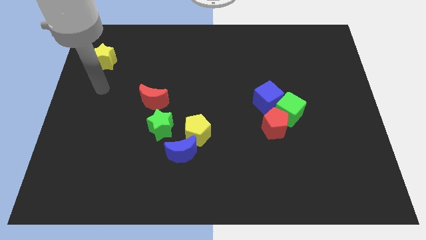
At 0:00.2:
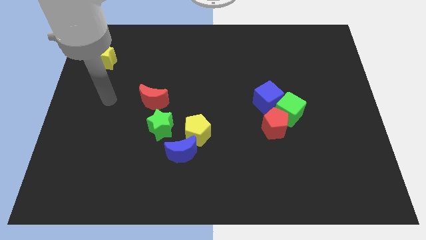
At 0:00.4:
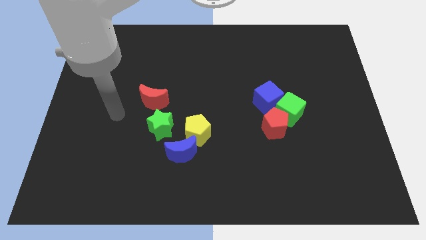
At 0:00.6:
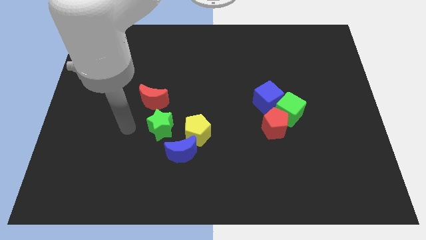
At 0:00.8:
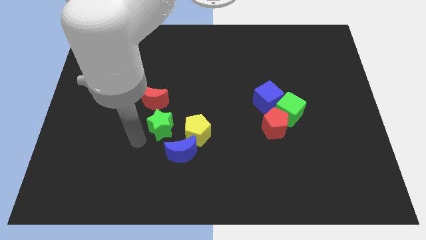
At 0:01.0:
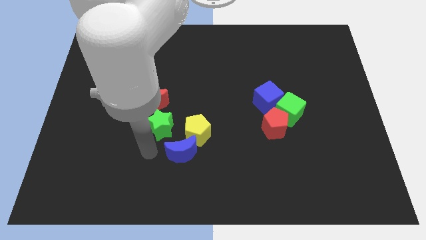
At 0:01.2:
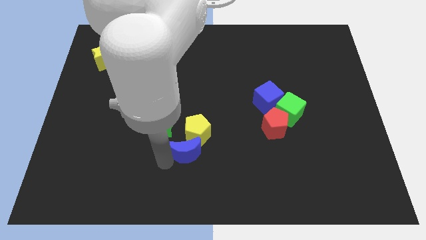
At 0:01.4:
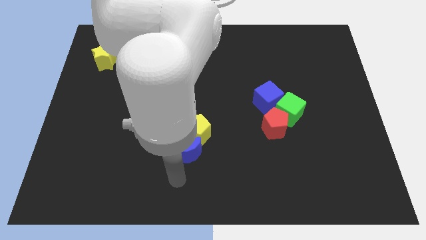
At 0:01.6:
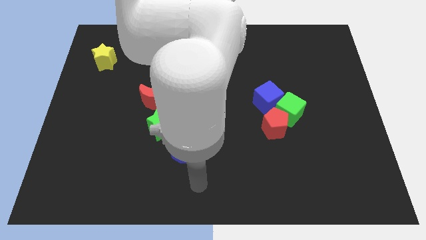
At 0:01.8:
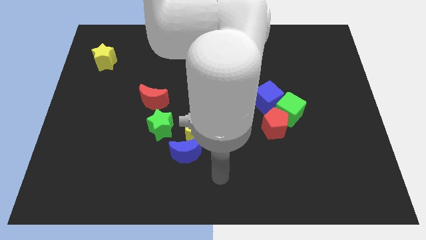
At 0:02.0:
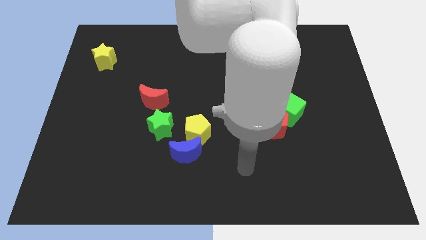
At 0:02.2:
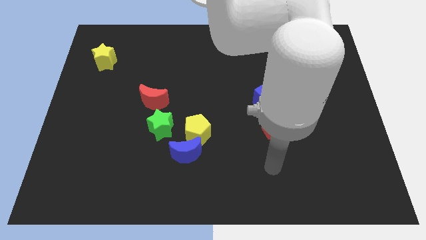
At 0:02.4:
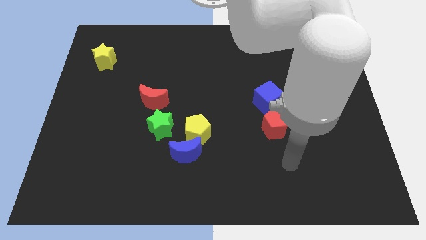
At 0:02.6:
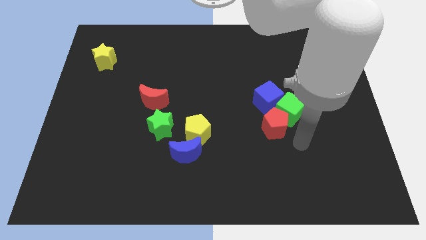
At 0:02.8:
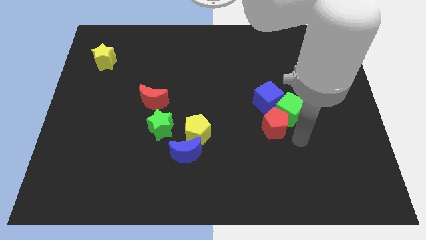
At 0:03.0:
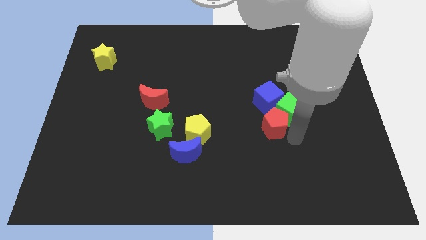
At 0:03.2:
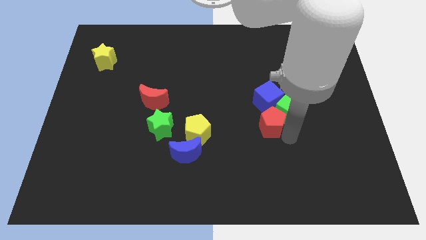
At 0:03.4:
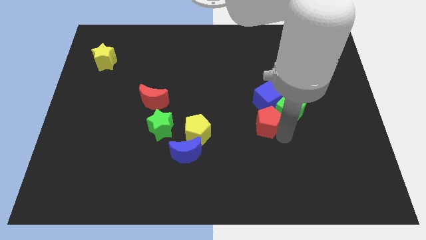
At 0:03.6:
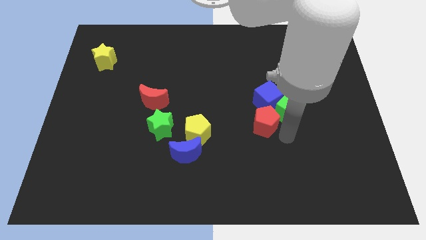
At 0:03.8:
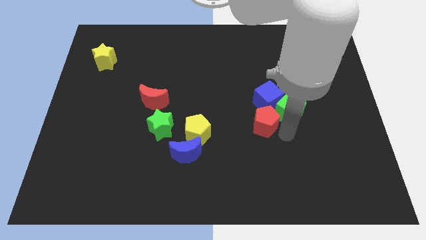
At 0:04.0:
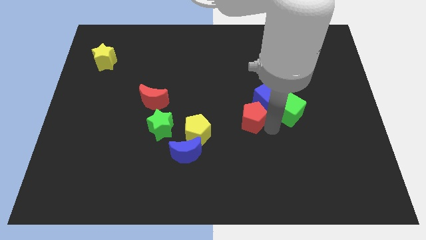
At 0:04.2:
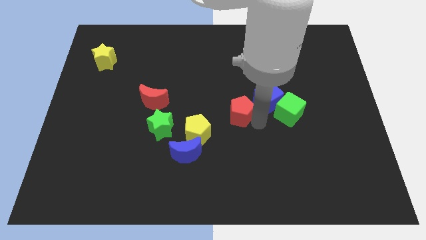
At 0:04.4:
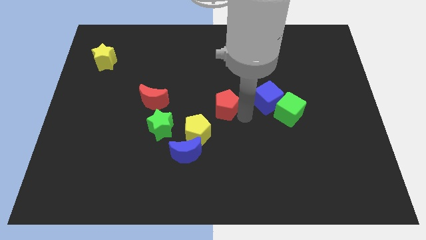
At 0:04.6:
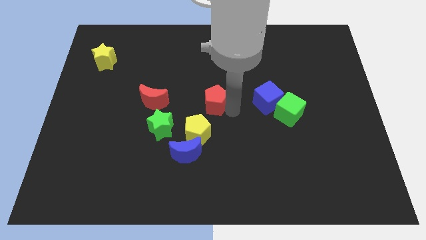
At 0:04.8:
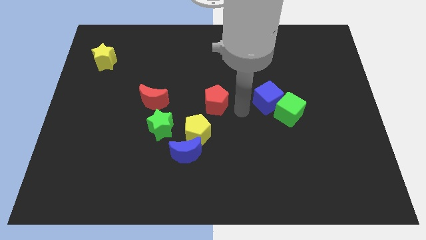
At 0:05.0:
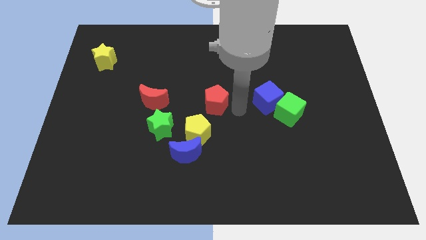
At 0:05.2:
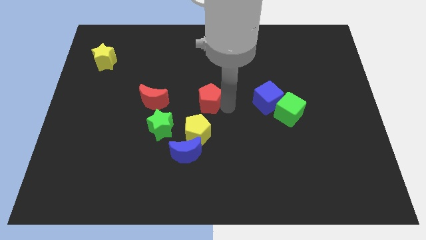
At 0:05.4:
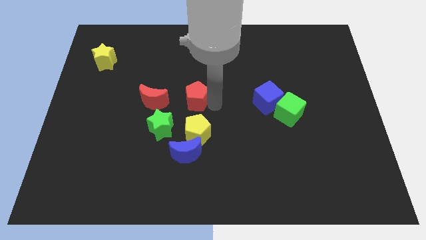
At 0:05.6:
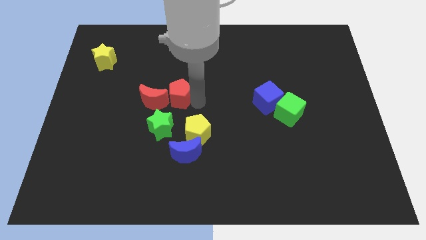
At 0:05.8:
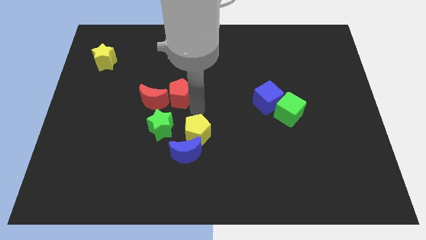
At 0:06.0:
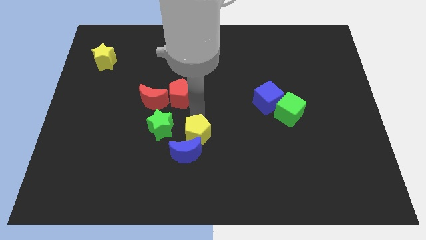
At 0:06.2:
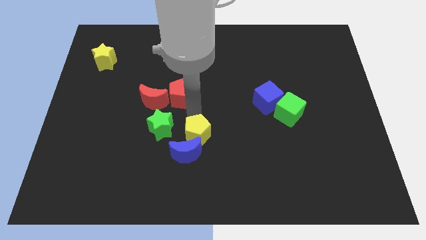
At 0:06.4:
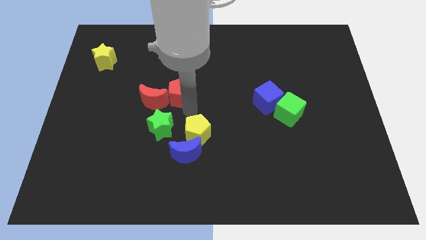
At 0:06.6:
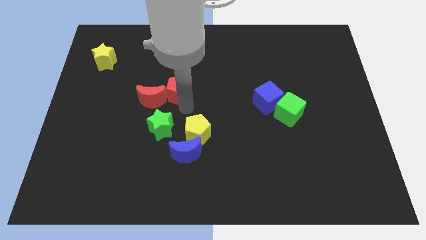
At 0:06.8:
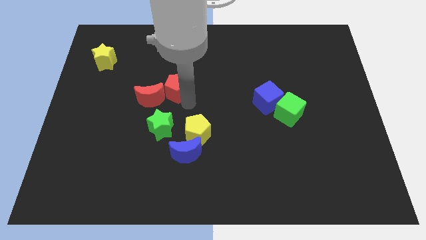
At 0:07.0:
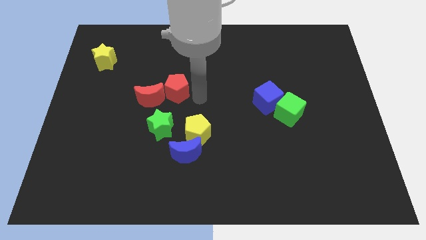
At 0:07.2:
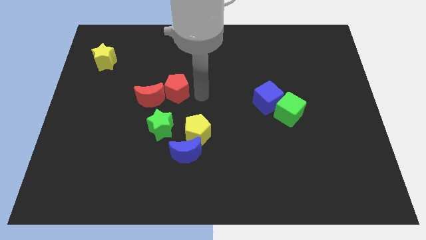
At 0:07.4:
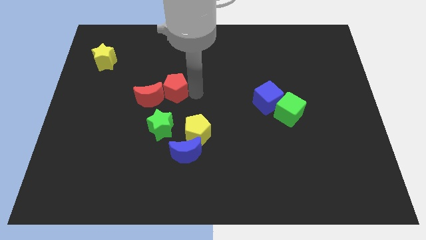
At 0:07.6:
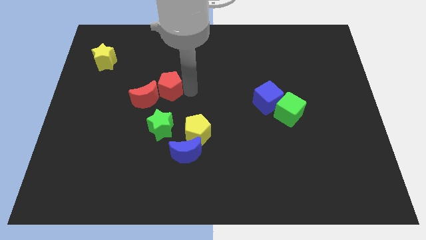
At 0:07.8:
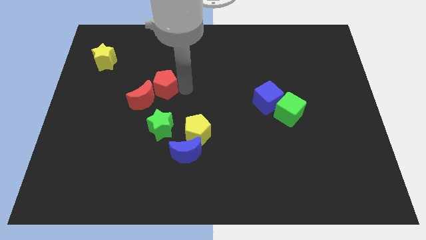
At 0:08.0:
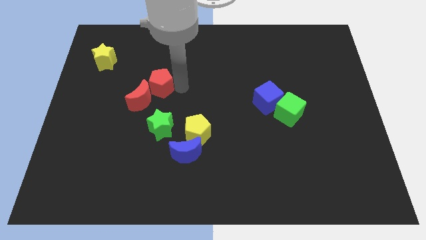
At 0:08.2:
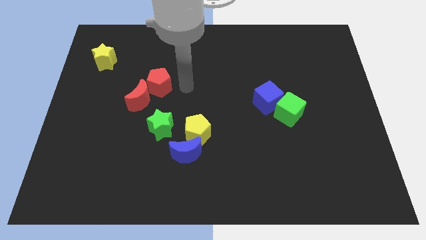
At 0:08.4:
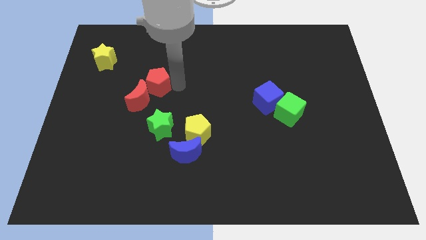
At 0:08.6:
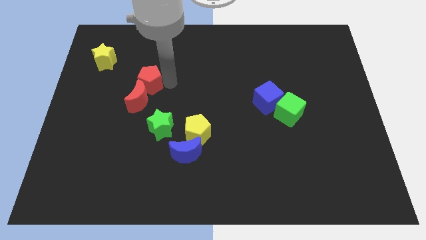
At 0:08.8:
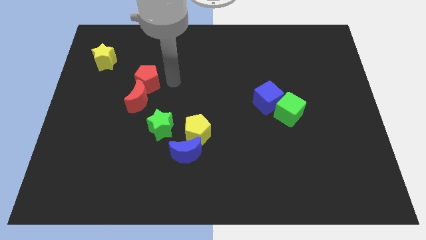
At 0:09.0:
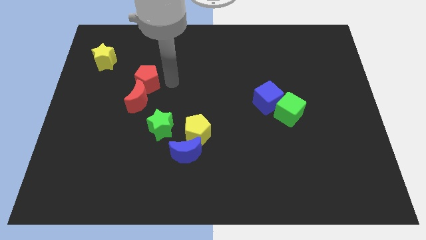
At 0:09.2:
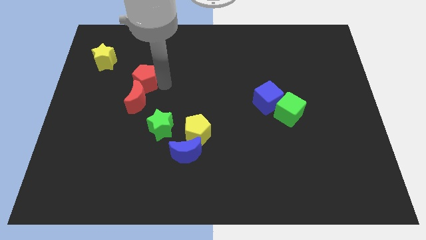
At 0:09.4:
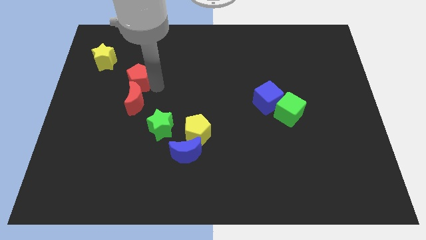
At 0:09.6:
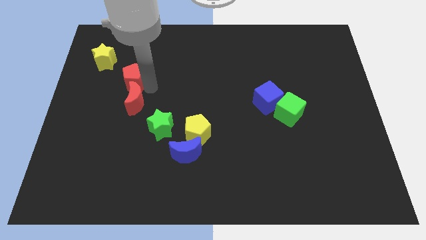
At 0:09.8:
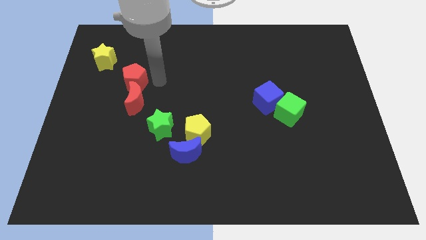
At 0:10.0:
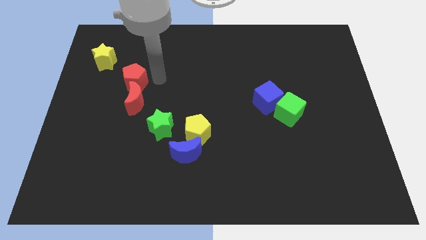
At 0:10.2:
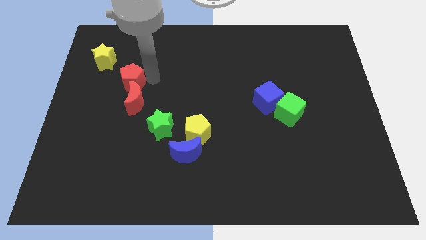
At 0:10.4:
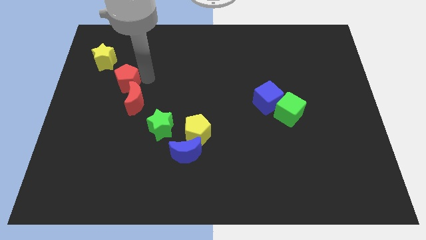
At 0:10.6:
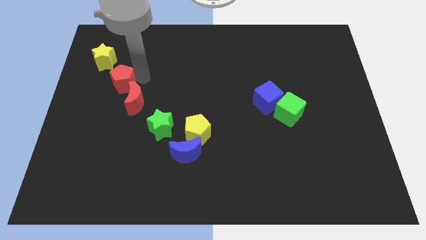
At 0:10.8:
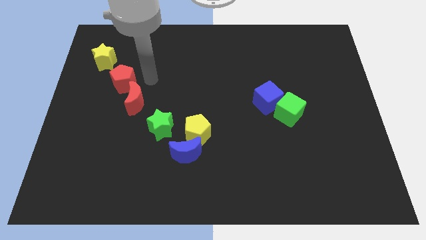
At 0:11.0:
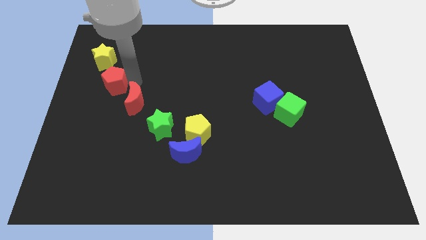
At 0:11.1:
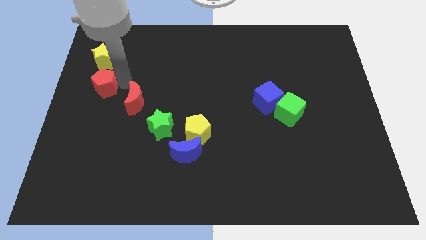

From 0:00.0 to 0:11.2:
slide the red pentagon to the left side

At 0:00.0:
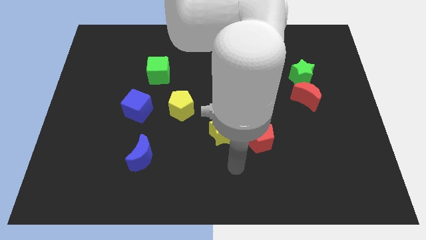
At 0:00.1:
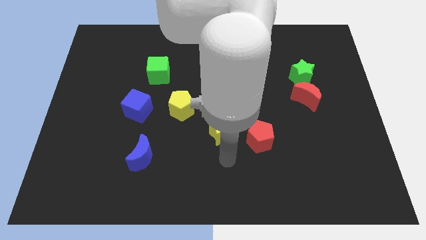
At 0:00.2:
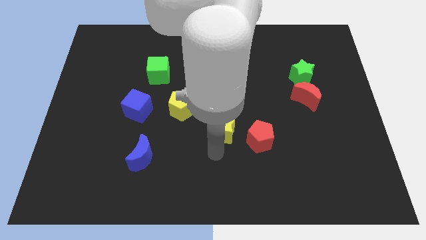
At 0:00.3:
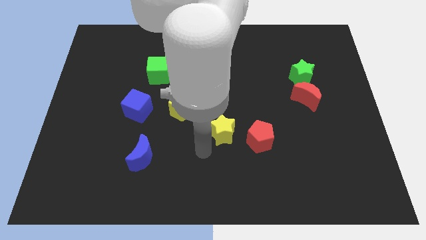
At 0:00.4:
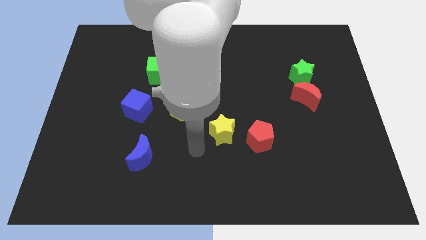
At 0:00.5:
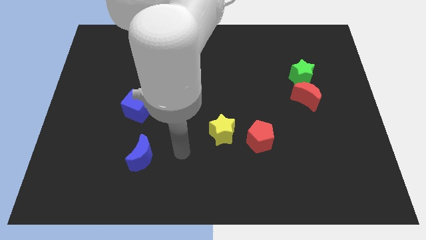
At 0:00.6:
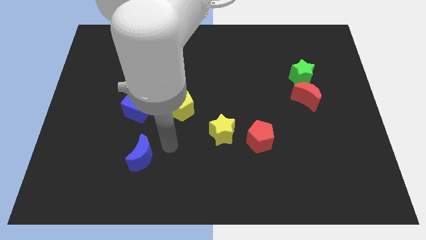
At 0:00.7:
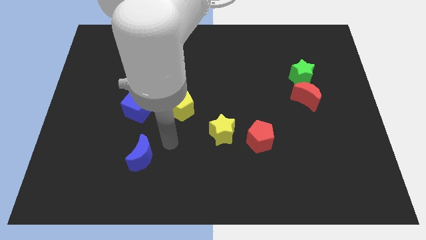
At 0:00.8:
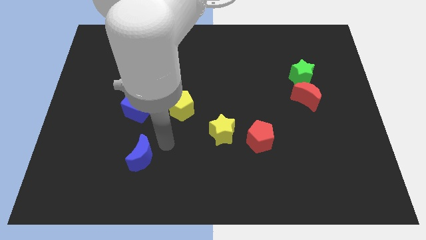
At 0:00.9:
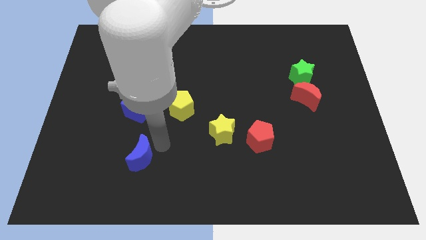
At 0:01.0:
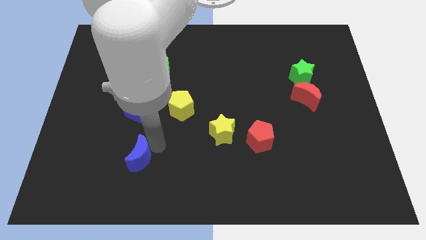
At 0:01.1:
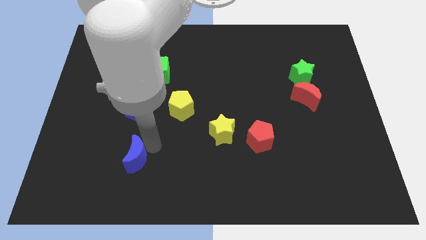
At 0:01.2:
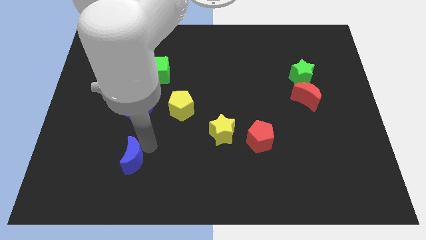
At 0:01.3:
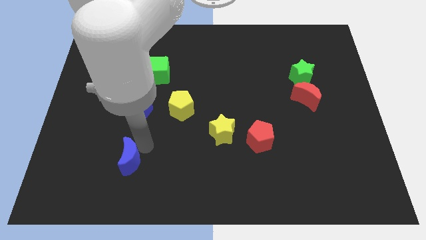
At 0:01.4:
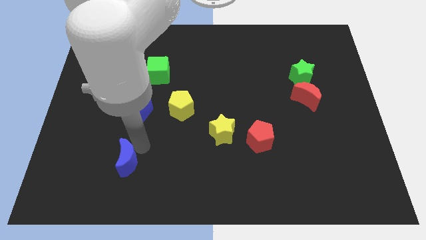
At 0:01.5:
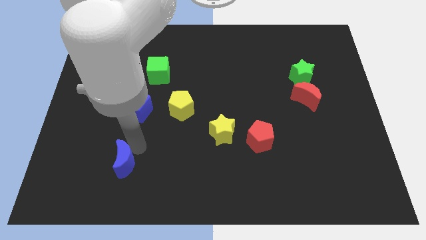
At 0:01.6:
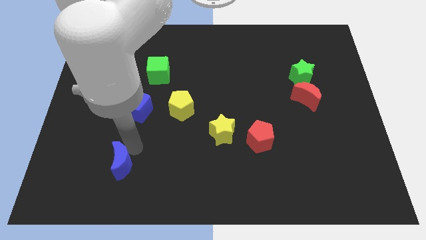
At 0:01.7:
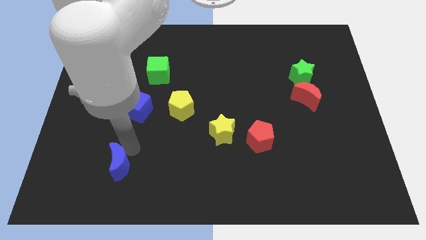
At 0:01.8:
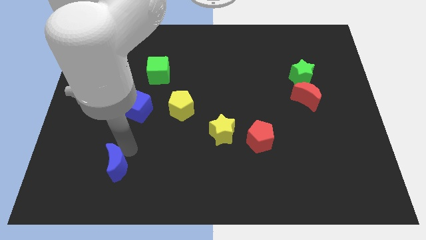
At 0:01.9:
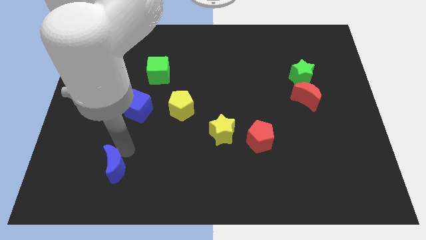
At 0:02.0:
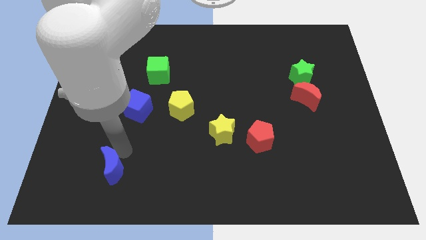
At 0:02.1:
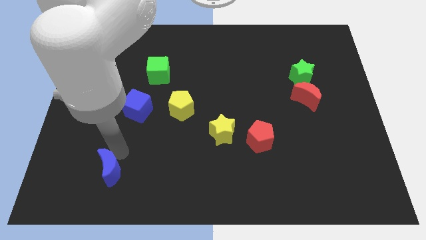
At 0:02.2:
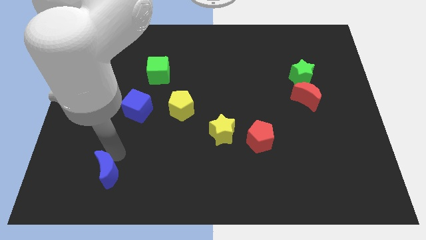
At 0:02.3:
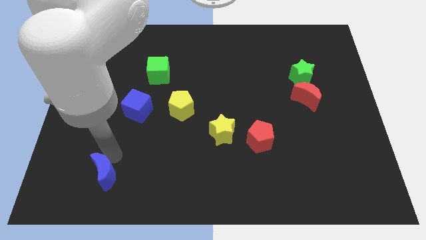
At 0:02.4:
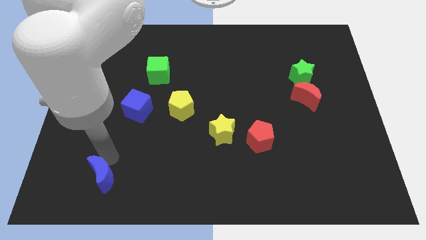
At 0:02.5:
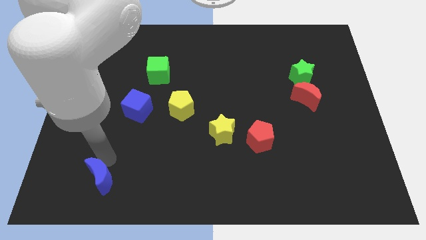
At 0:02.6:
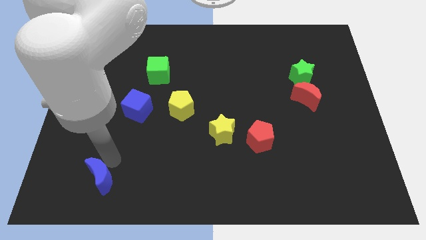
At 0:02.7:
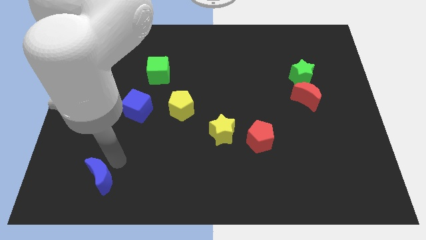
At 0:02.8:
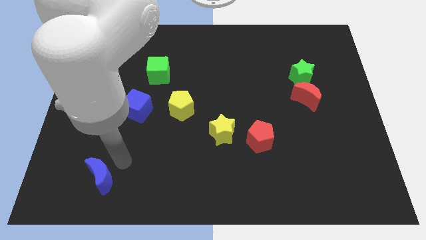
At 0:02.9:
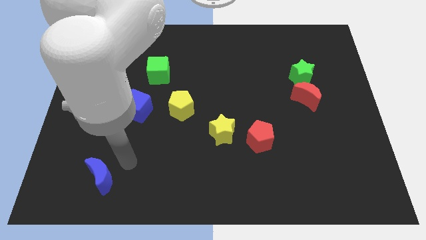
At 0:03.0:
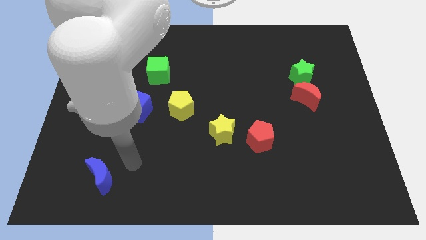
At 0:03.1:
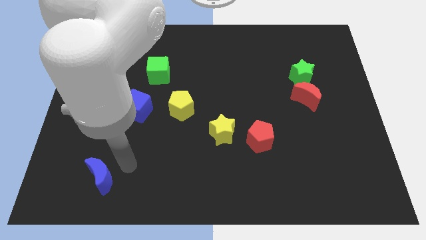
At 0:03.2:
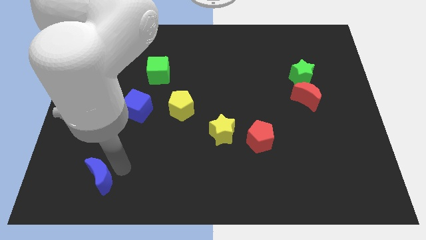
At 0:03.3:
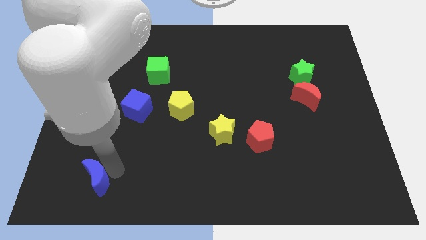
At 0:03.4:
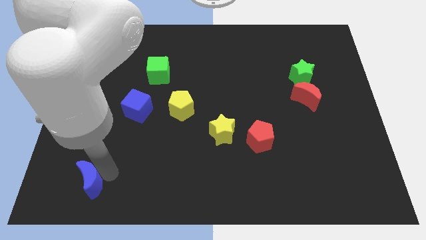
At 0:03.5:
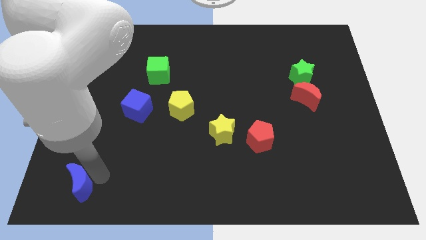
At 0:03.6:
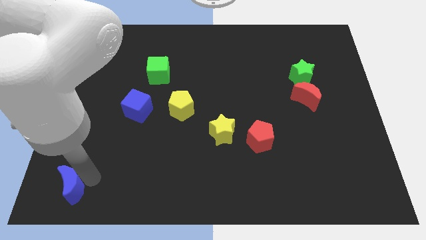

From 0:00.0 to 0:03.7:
move the blue moon to the bottom left corner
